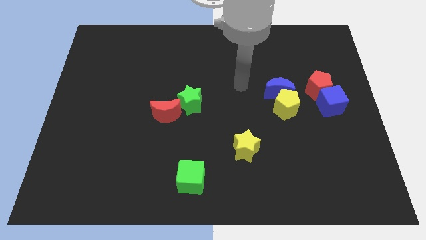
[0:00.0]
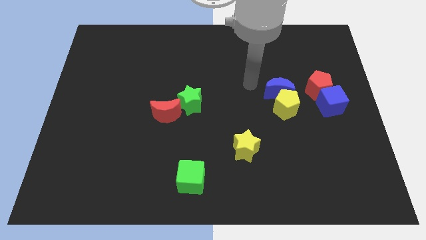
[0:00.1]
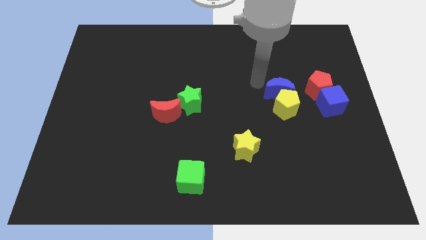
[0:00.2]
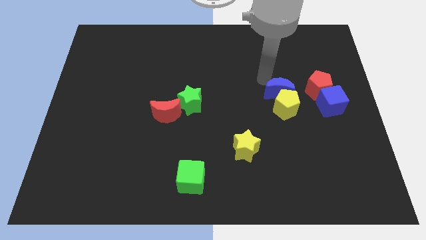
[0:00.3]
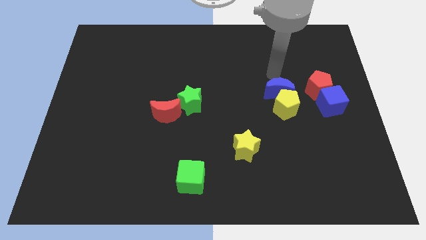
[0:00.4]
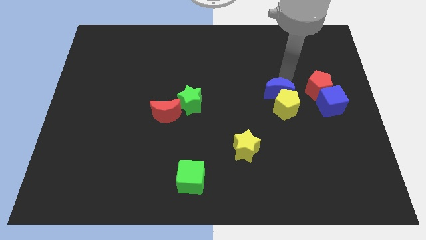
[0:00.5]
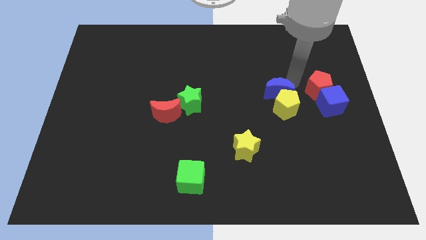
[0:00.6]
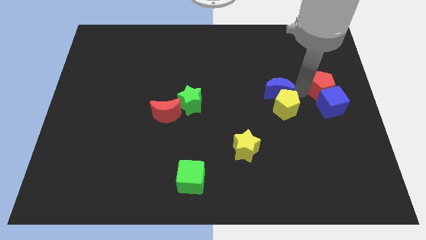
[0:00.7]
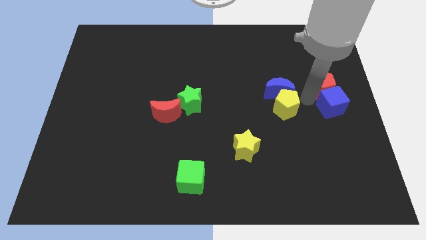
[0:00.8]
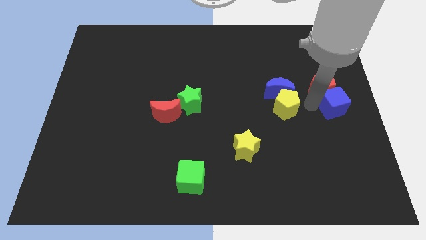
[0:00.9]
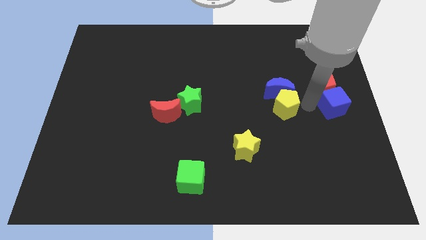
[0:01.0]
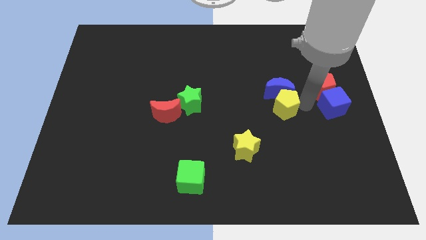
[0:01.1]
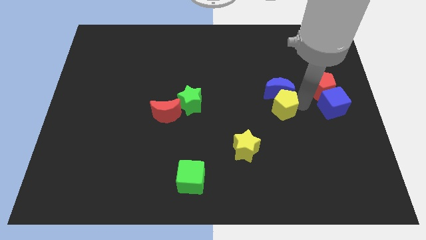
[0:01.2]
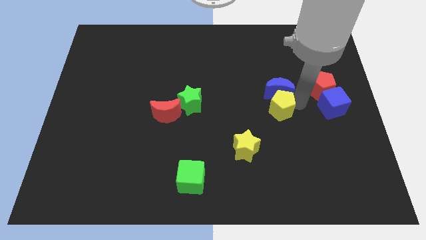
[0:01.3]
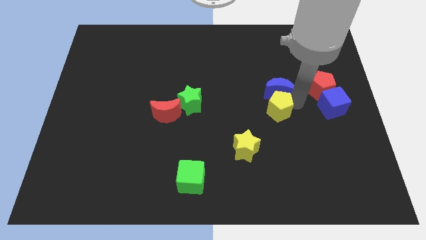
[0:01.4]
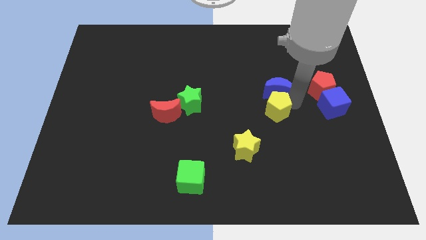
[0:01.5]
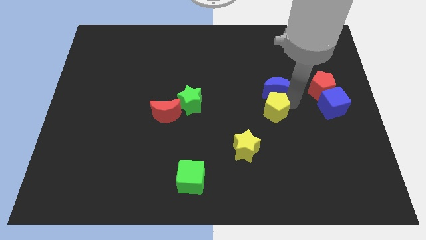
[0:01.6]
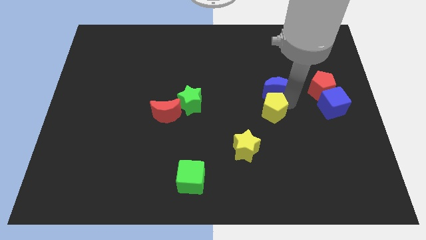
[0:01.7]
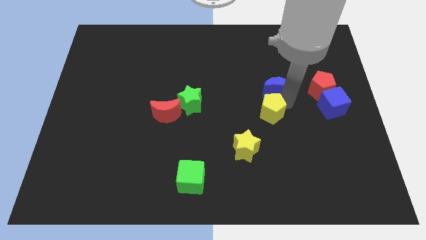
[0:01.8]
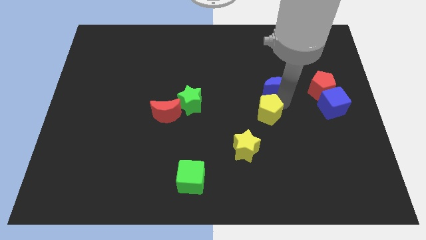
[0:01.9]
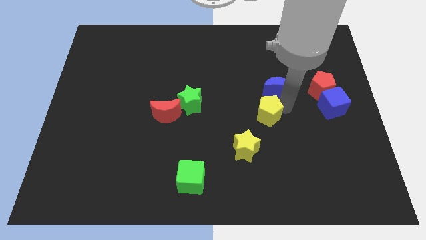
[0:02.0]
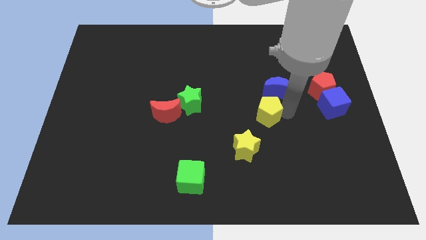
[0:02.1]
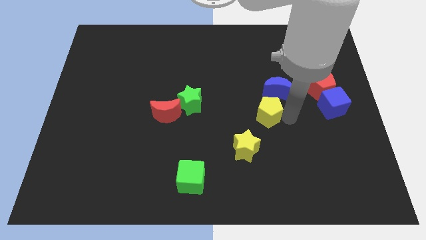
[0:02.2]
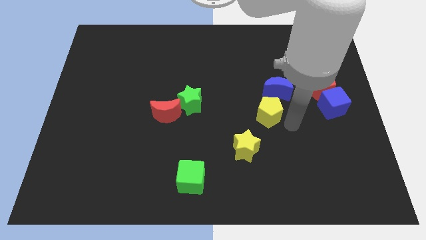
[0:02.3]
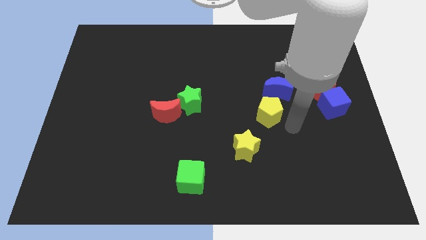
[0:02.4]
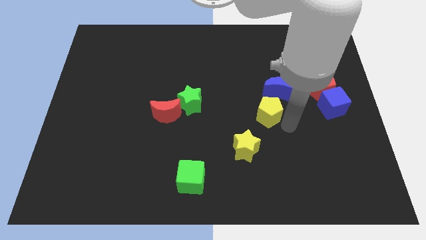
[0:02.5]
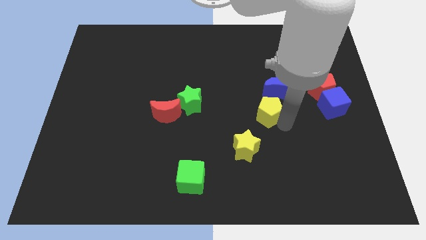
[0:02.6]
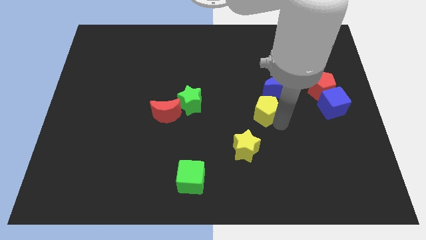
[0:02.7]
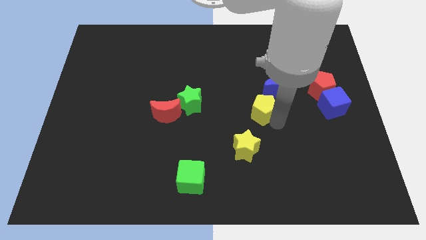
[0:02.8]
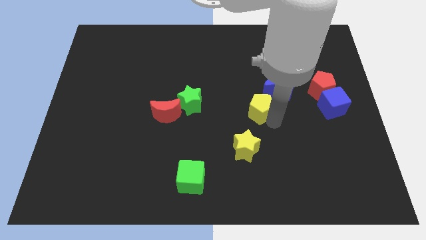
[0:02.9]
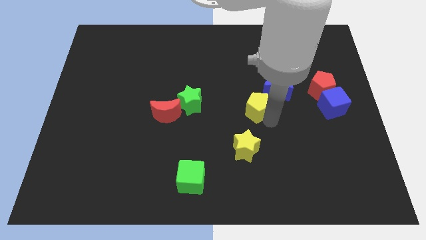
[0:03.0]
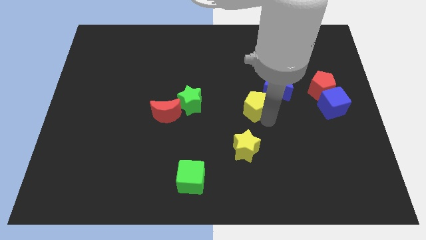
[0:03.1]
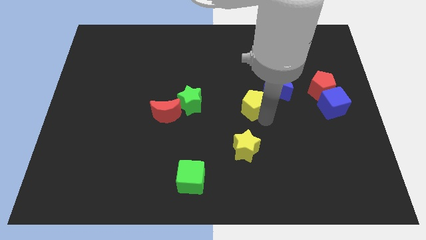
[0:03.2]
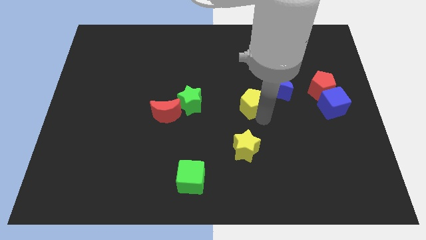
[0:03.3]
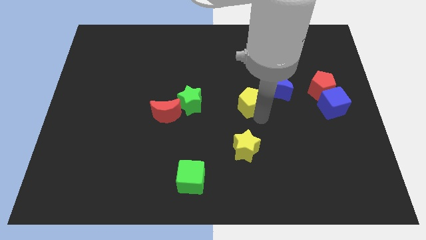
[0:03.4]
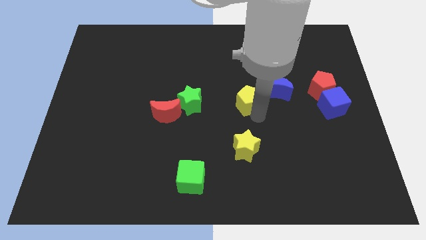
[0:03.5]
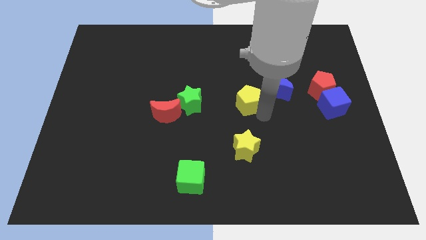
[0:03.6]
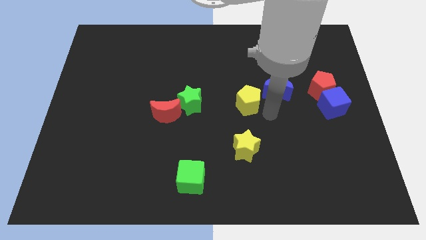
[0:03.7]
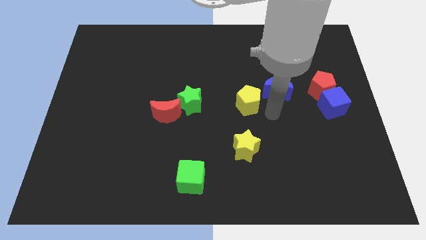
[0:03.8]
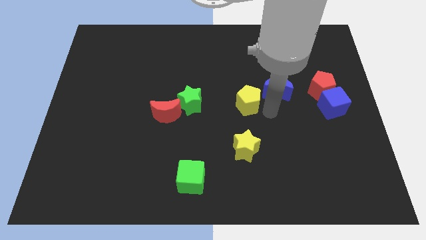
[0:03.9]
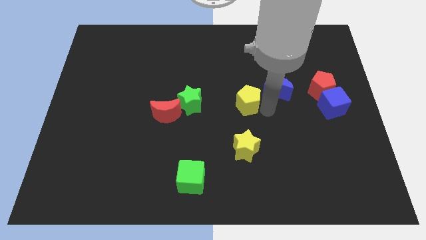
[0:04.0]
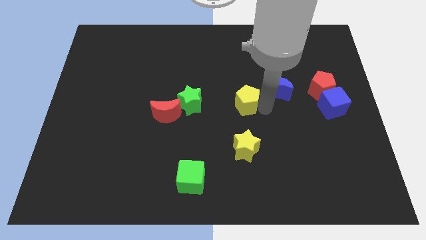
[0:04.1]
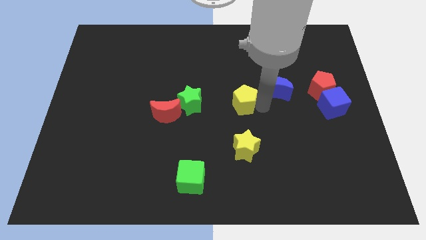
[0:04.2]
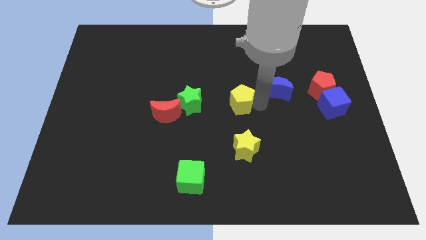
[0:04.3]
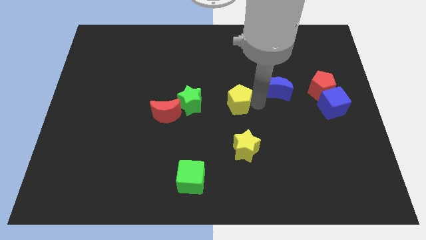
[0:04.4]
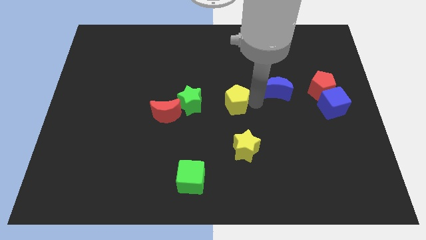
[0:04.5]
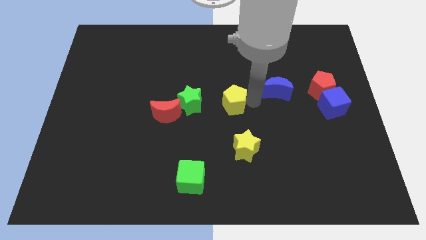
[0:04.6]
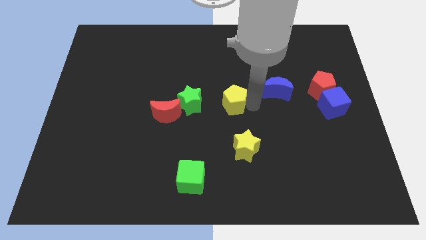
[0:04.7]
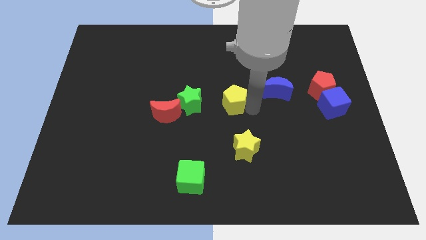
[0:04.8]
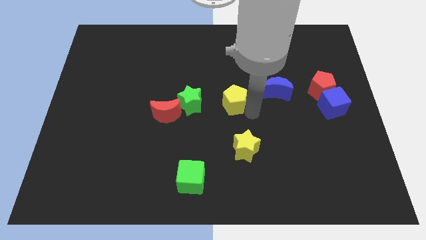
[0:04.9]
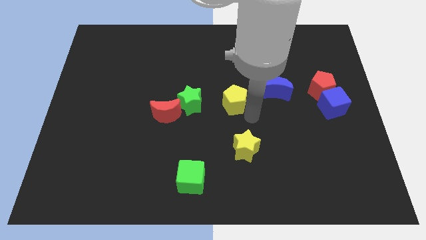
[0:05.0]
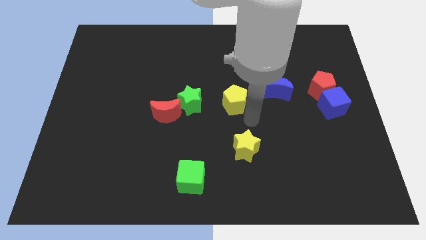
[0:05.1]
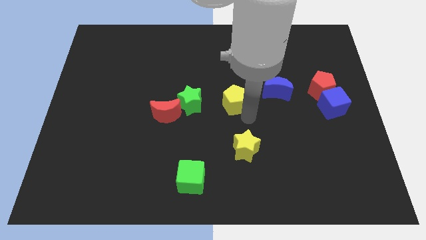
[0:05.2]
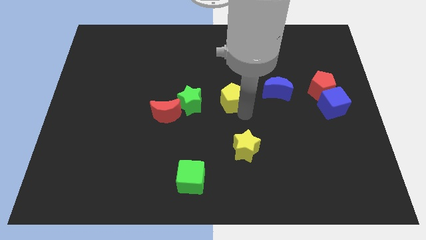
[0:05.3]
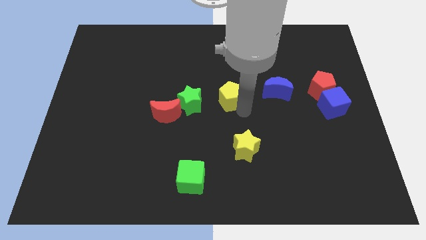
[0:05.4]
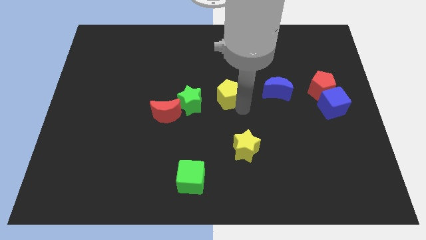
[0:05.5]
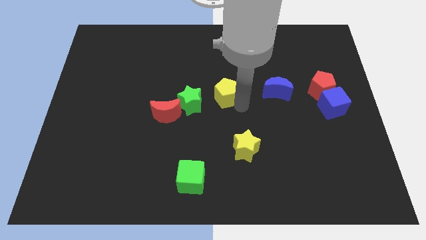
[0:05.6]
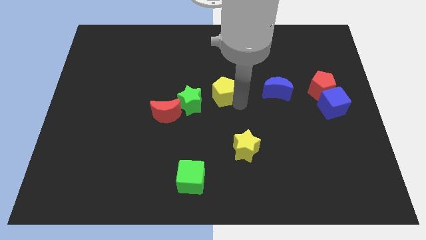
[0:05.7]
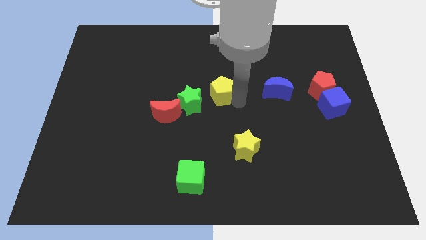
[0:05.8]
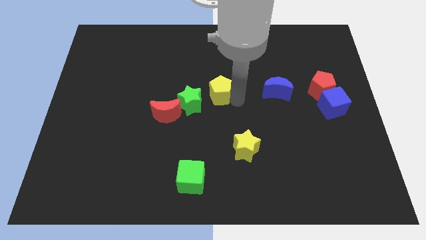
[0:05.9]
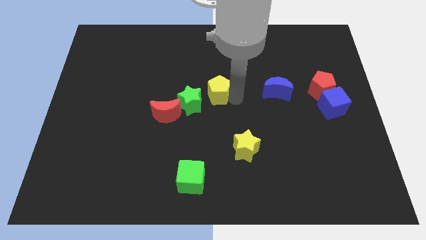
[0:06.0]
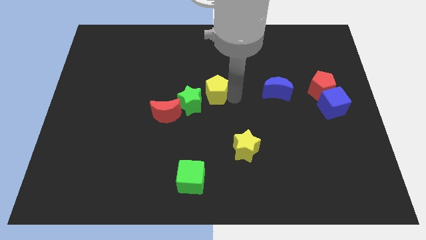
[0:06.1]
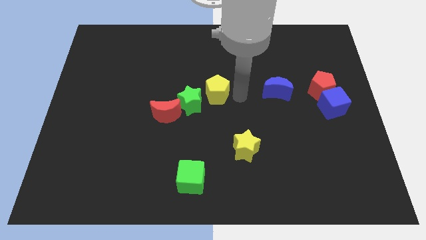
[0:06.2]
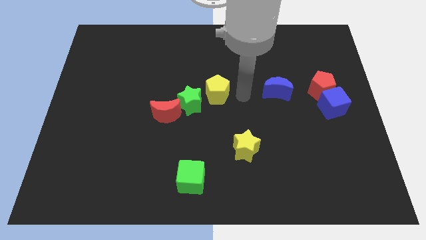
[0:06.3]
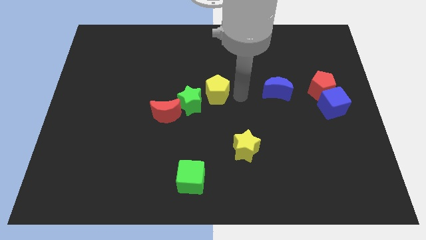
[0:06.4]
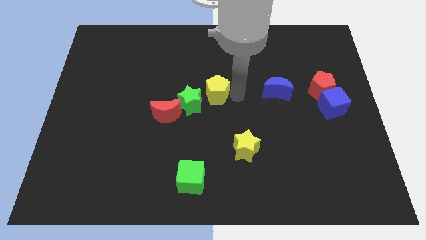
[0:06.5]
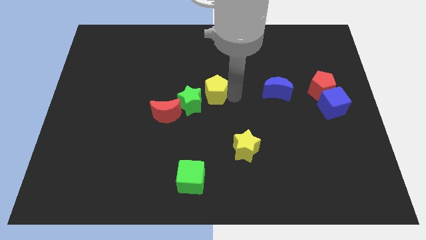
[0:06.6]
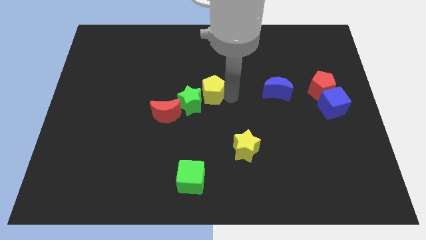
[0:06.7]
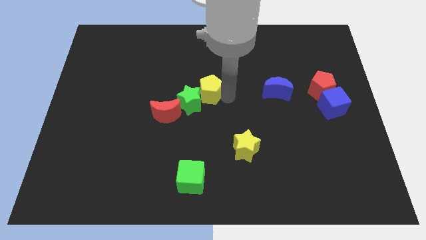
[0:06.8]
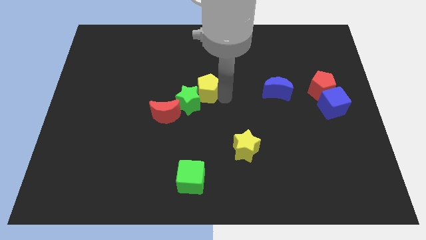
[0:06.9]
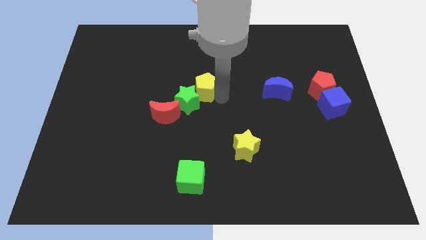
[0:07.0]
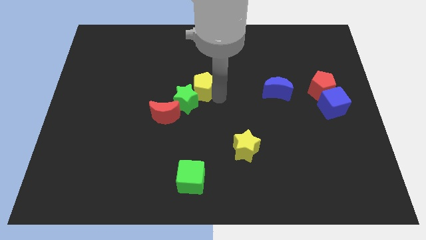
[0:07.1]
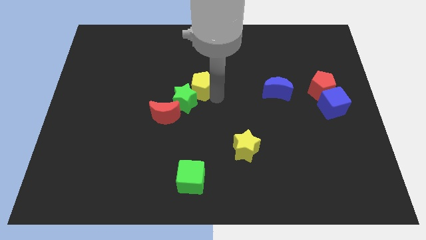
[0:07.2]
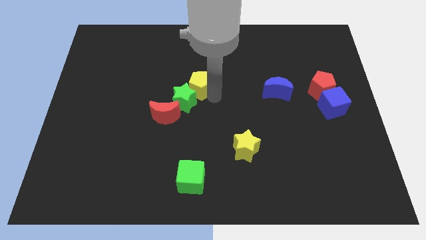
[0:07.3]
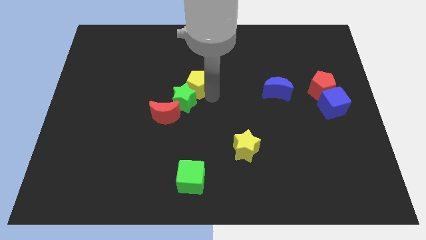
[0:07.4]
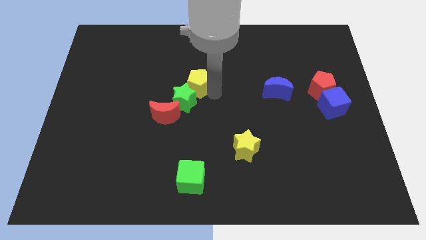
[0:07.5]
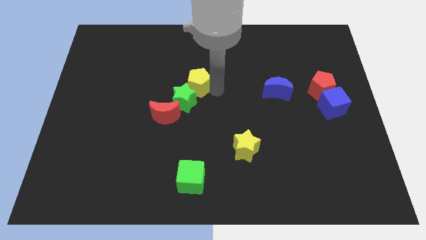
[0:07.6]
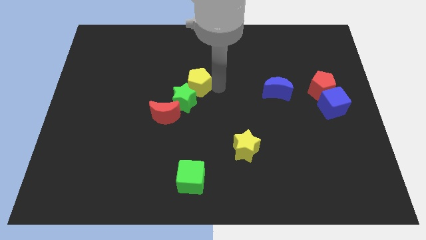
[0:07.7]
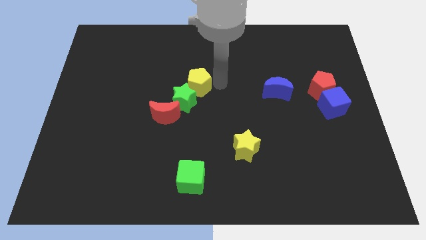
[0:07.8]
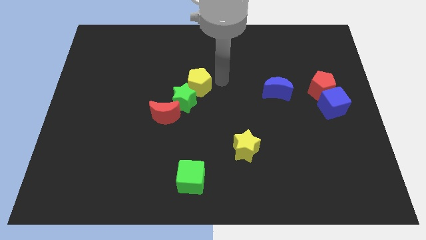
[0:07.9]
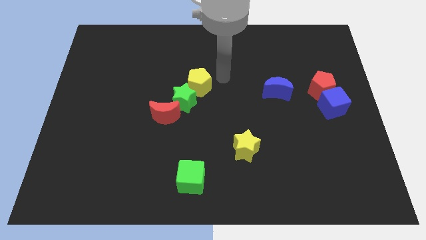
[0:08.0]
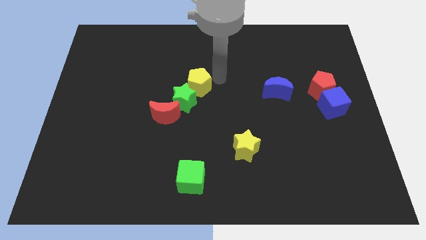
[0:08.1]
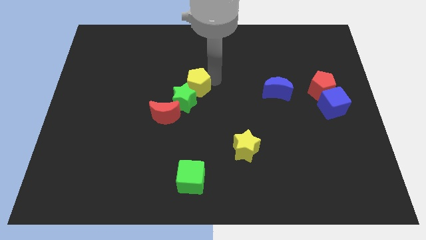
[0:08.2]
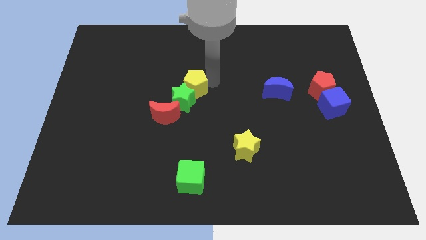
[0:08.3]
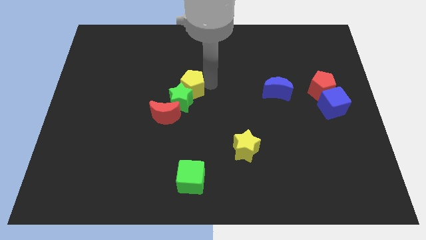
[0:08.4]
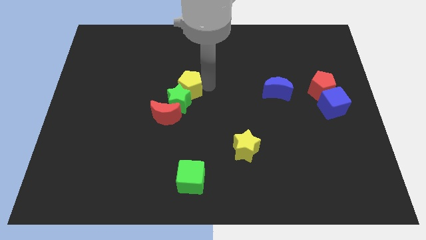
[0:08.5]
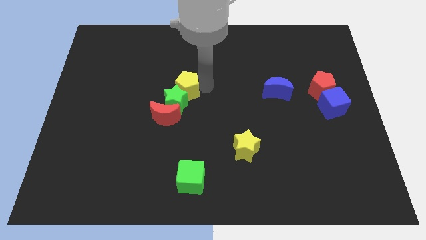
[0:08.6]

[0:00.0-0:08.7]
push the yellow pentagon to the top of the red moon
